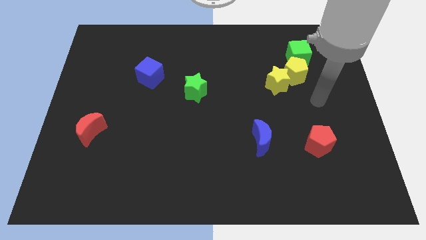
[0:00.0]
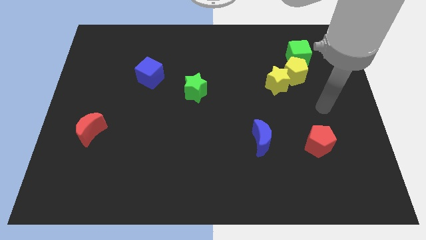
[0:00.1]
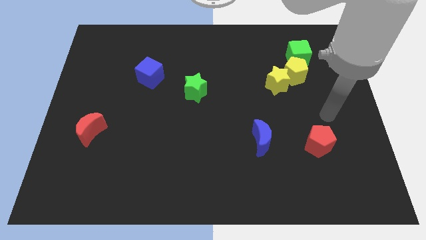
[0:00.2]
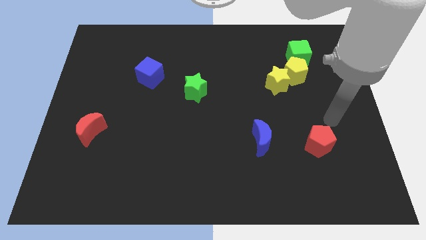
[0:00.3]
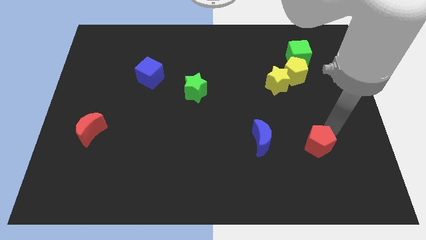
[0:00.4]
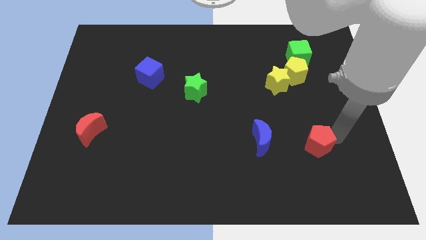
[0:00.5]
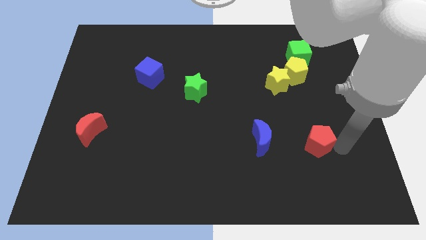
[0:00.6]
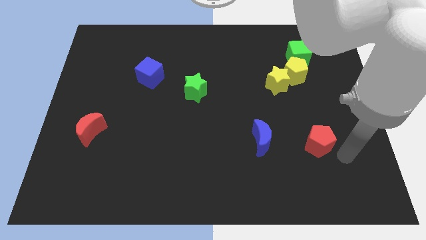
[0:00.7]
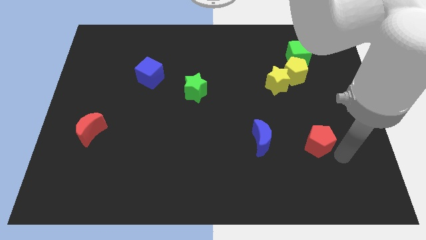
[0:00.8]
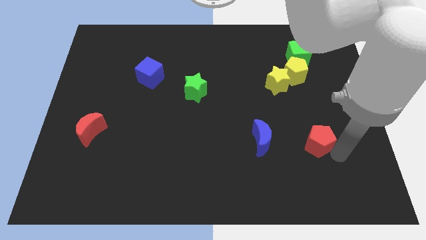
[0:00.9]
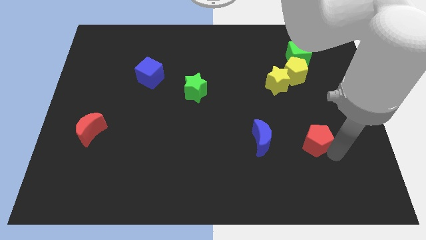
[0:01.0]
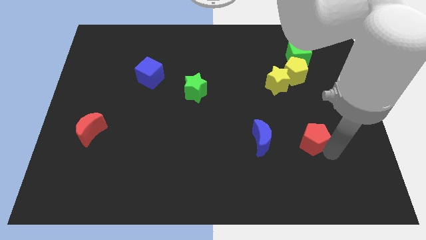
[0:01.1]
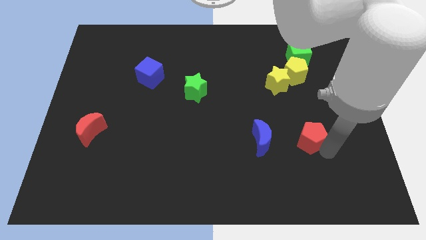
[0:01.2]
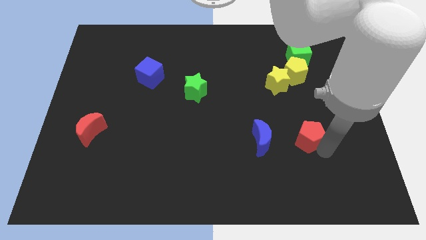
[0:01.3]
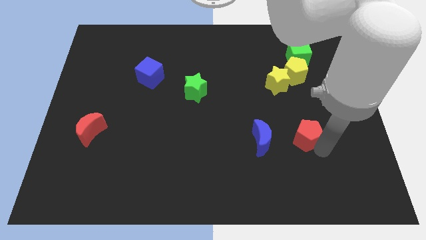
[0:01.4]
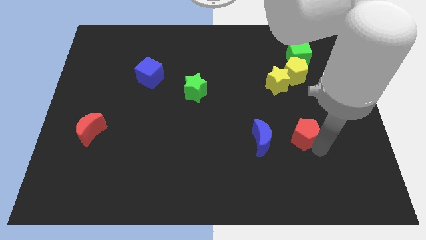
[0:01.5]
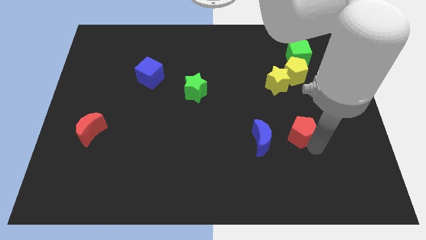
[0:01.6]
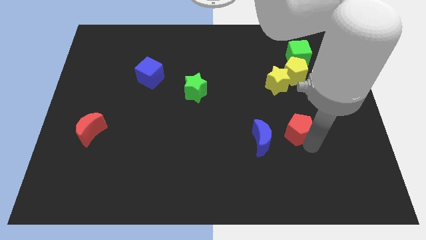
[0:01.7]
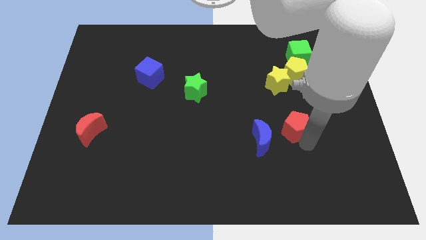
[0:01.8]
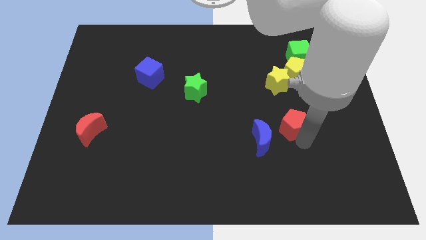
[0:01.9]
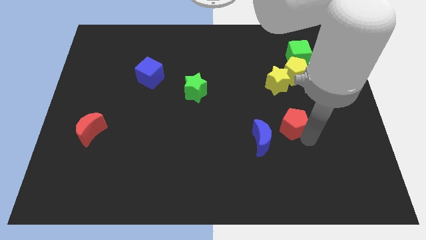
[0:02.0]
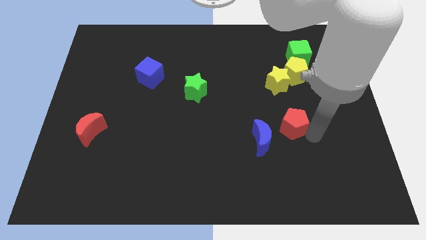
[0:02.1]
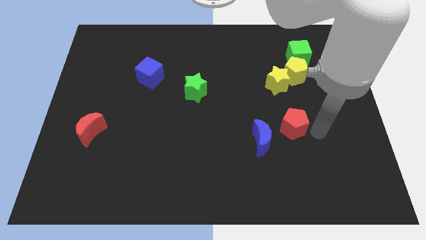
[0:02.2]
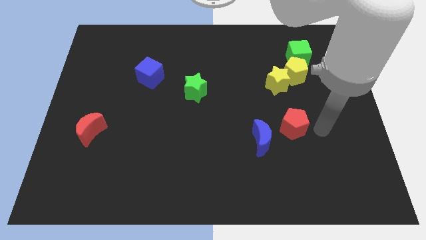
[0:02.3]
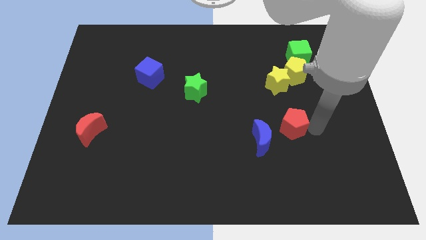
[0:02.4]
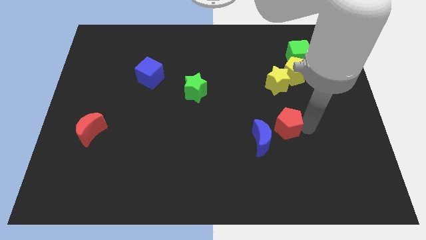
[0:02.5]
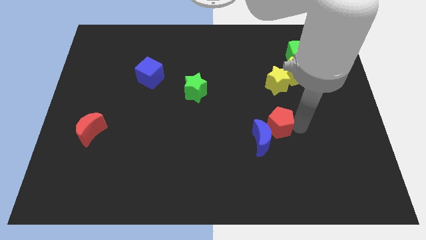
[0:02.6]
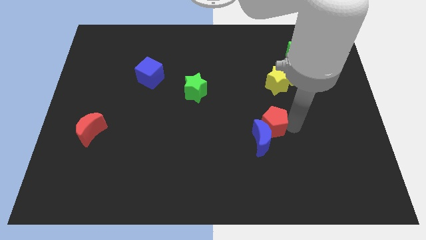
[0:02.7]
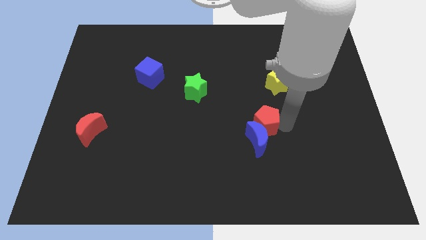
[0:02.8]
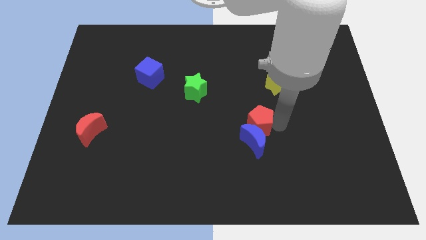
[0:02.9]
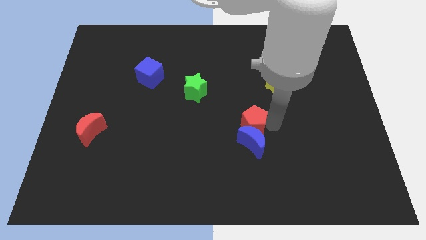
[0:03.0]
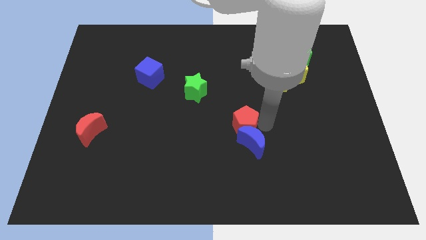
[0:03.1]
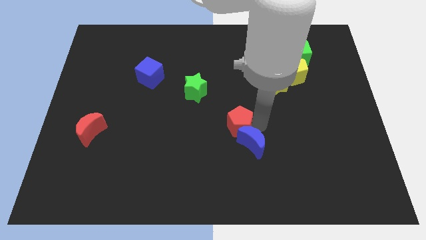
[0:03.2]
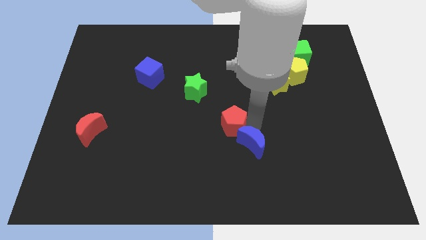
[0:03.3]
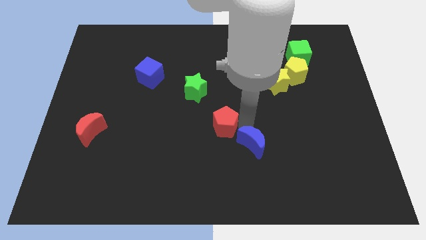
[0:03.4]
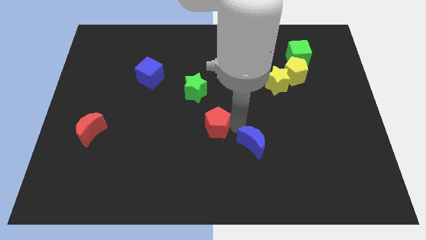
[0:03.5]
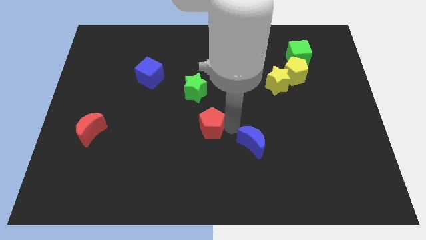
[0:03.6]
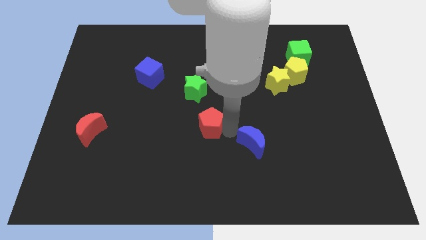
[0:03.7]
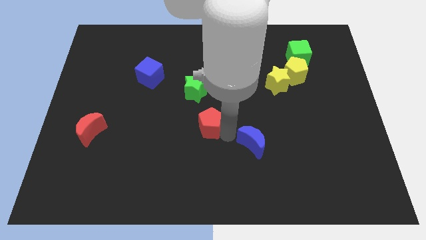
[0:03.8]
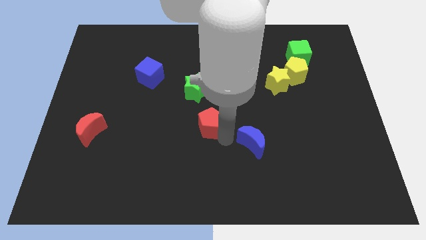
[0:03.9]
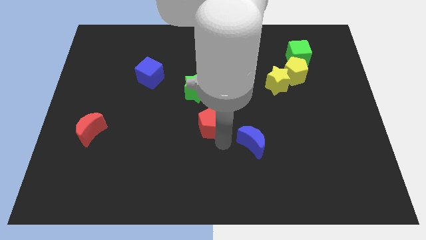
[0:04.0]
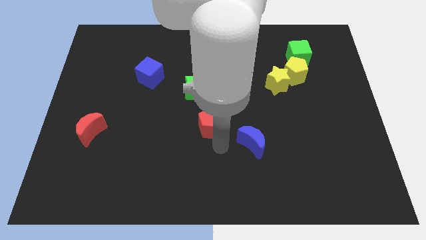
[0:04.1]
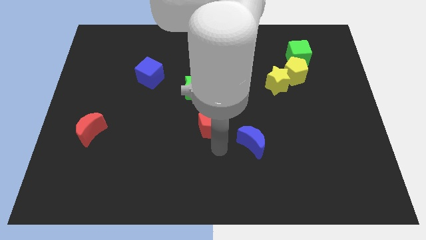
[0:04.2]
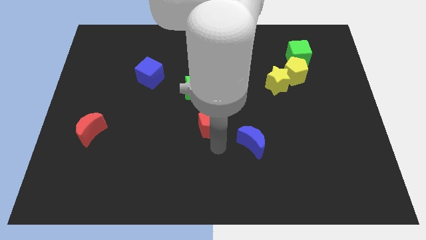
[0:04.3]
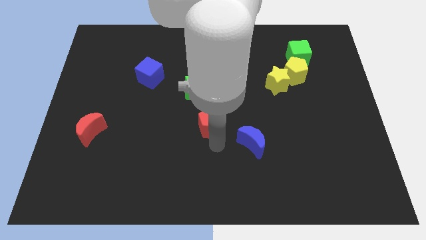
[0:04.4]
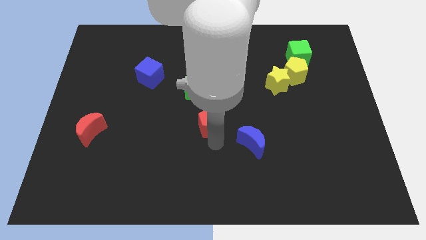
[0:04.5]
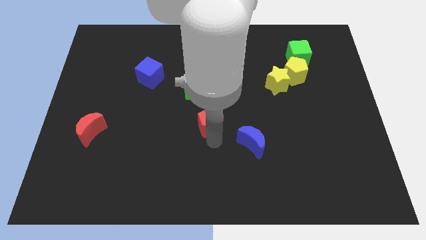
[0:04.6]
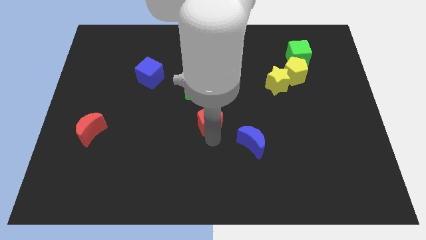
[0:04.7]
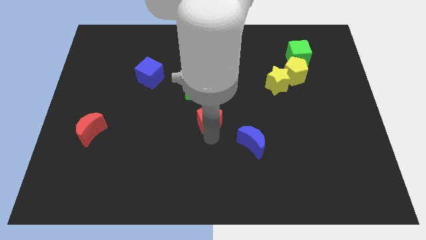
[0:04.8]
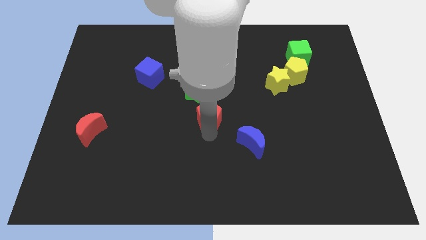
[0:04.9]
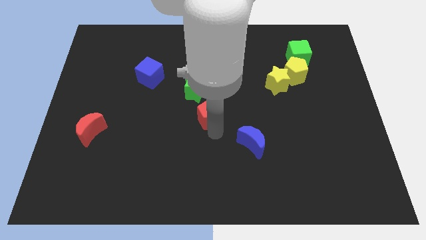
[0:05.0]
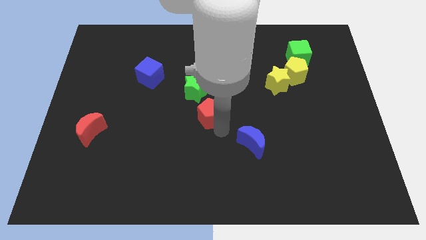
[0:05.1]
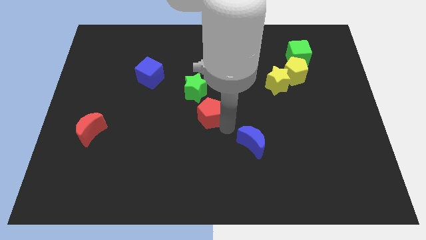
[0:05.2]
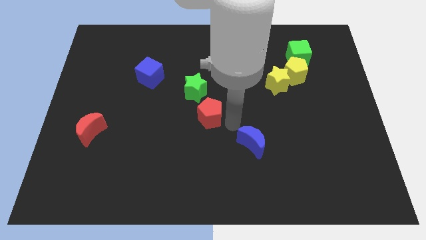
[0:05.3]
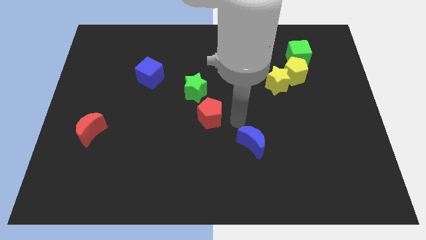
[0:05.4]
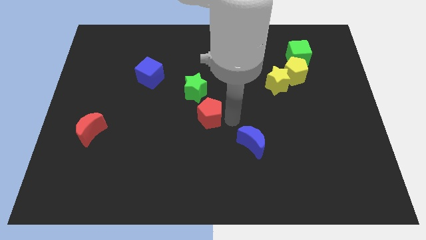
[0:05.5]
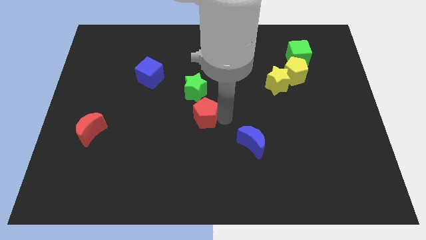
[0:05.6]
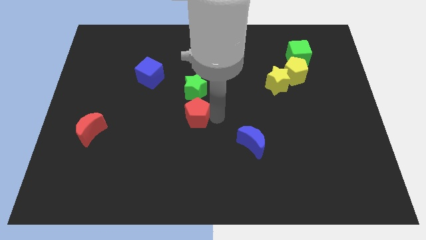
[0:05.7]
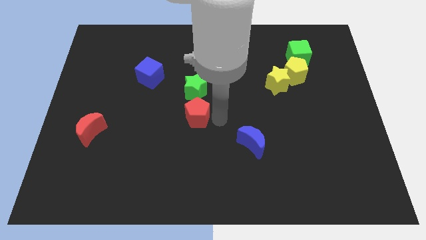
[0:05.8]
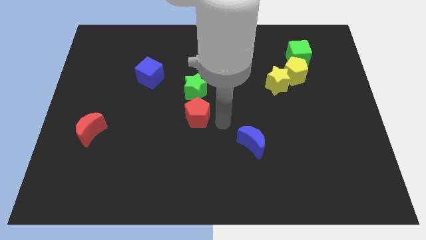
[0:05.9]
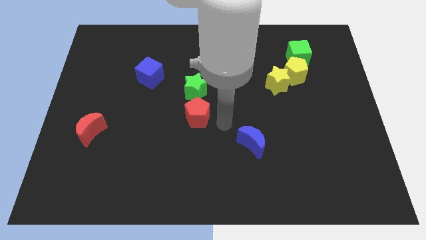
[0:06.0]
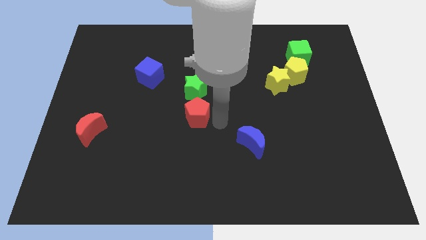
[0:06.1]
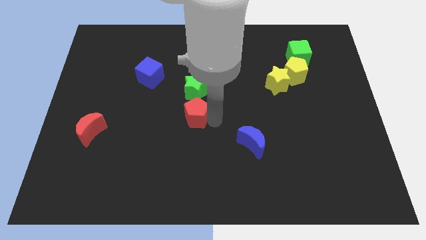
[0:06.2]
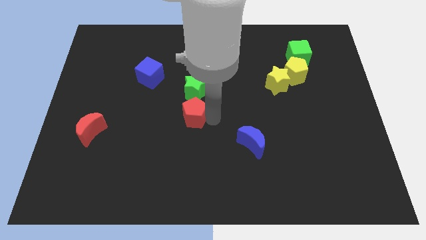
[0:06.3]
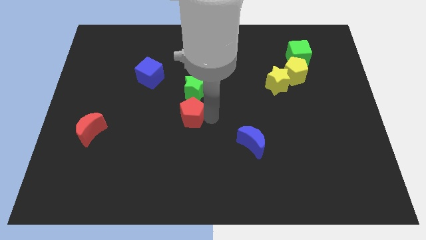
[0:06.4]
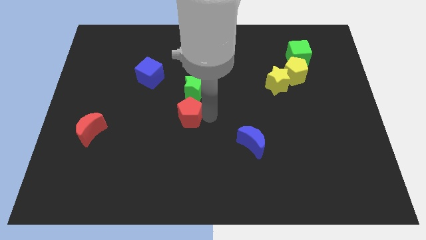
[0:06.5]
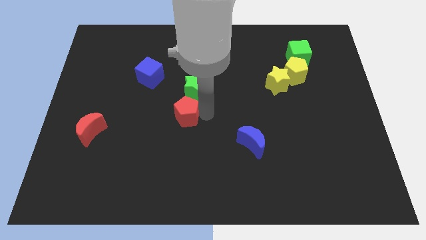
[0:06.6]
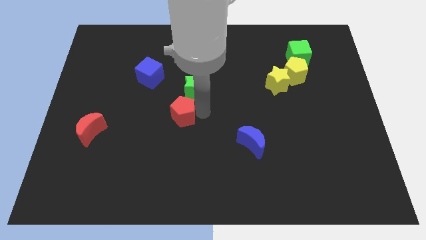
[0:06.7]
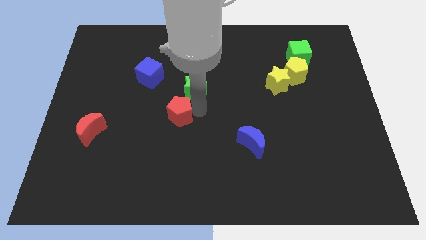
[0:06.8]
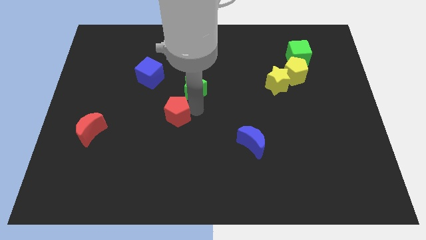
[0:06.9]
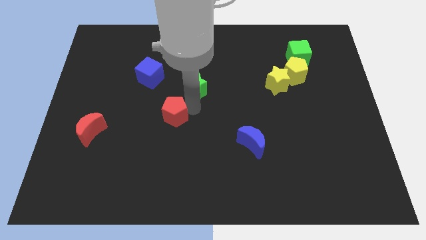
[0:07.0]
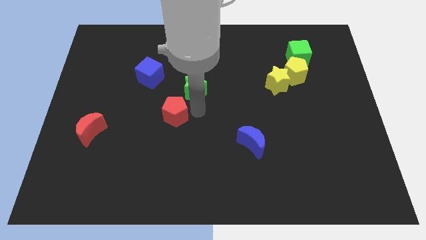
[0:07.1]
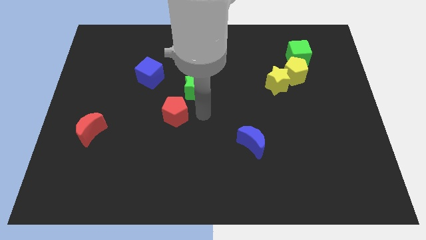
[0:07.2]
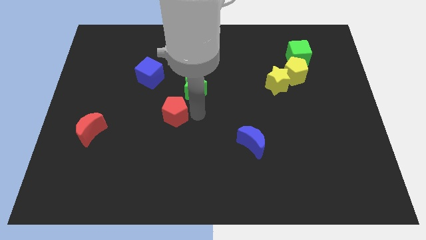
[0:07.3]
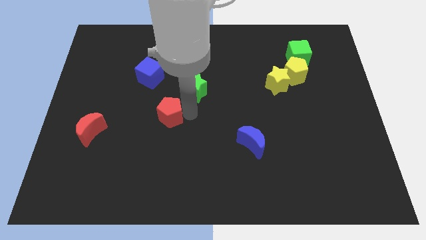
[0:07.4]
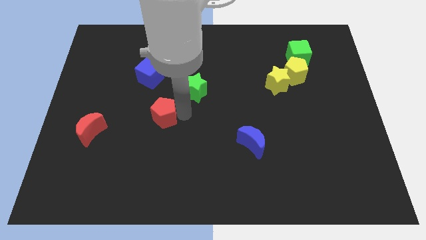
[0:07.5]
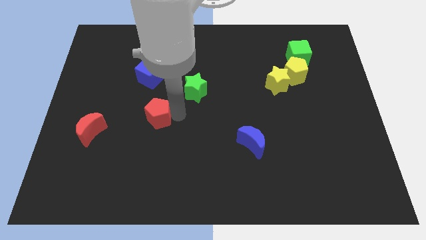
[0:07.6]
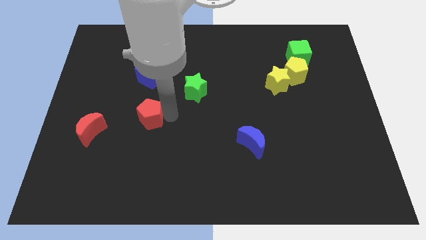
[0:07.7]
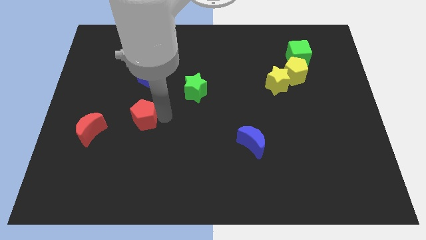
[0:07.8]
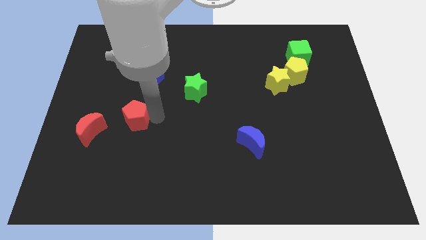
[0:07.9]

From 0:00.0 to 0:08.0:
push the red pentagon to the top right of the red moon
